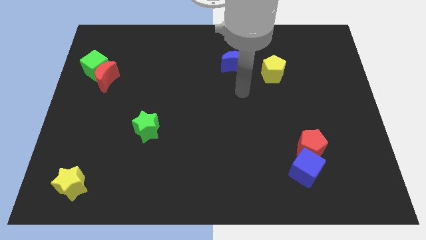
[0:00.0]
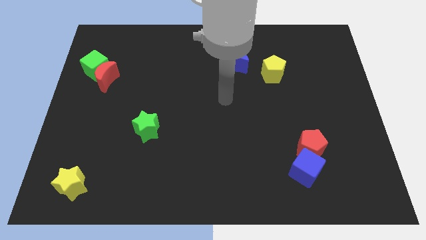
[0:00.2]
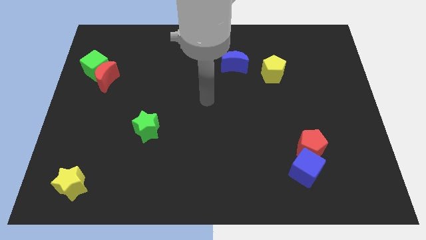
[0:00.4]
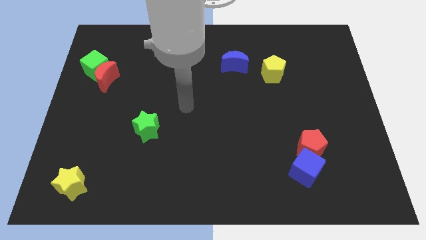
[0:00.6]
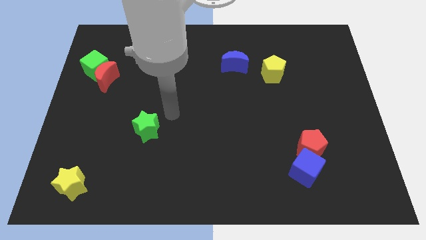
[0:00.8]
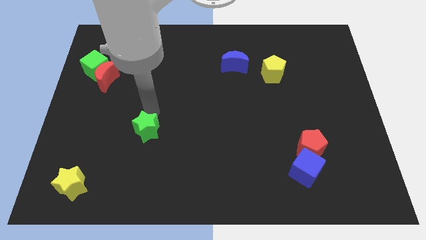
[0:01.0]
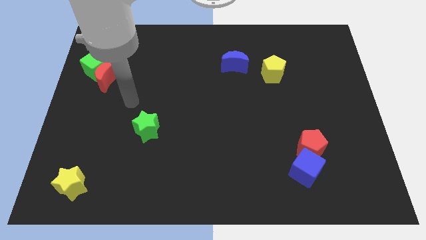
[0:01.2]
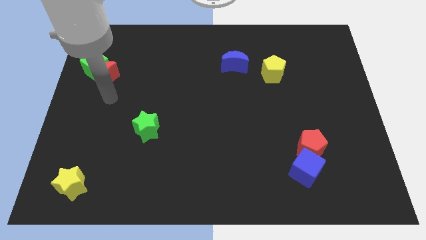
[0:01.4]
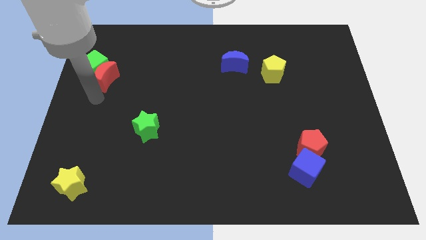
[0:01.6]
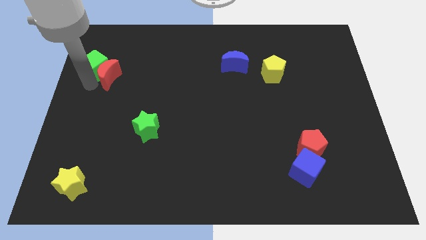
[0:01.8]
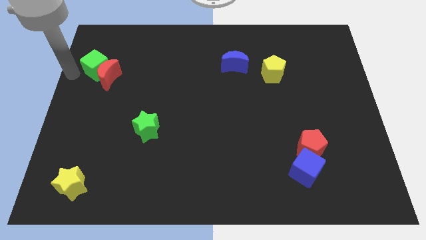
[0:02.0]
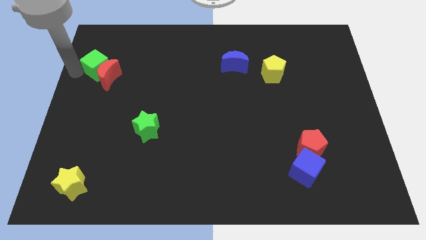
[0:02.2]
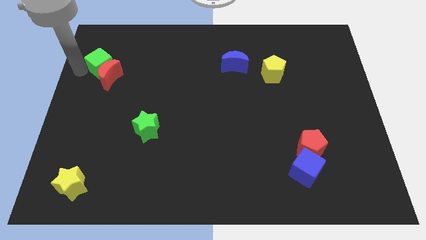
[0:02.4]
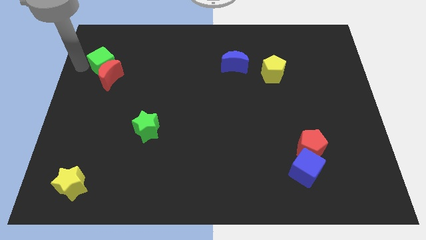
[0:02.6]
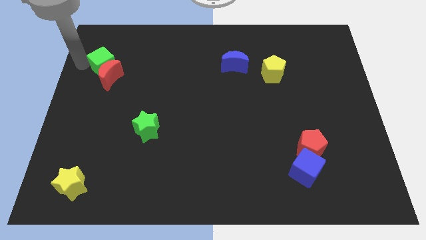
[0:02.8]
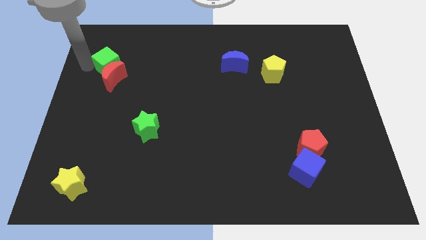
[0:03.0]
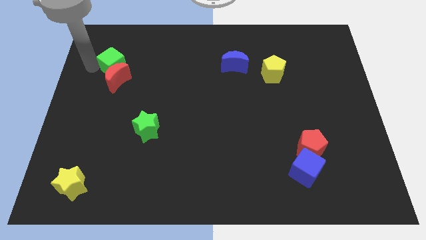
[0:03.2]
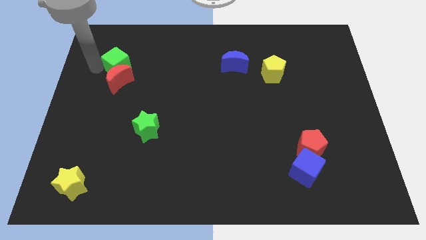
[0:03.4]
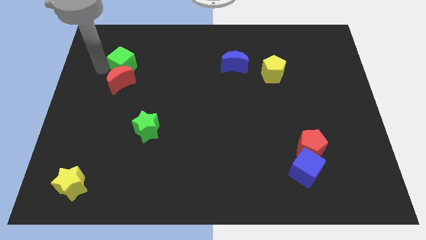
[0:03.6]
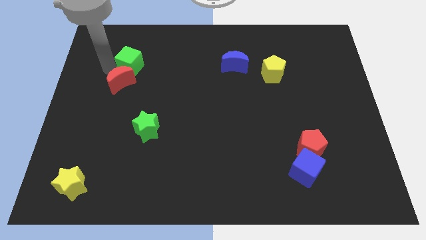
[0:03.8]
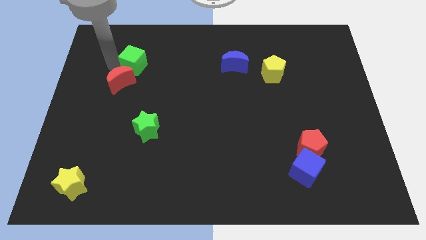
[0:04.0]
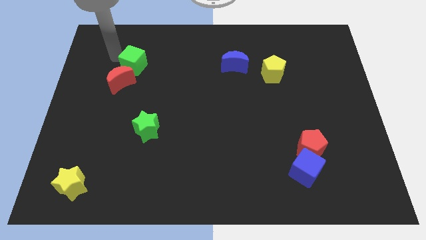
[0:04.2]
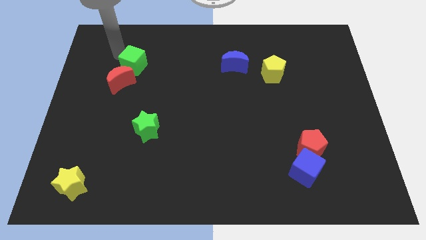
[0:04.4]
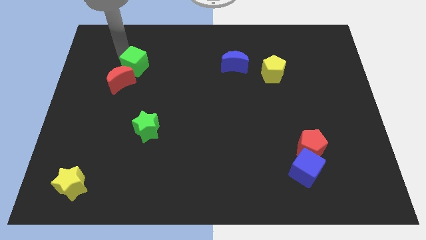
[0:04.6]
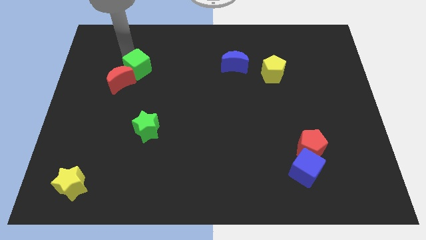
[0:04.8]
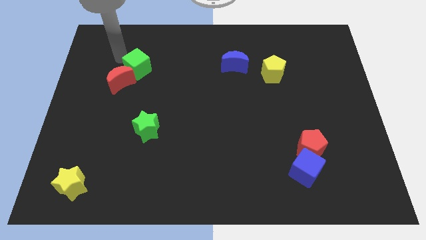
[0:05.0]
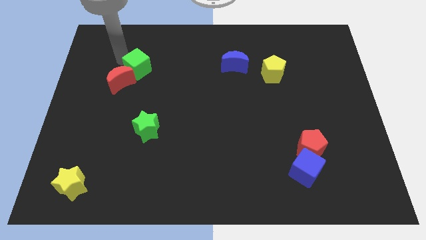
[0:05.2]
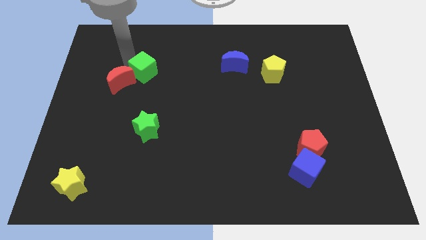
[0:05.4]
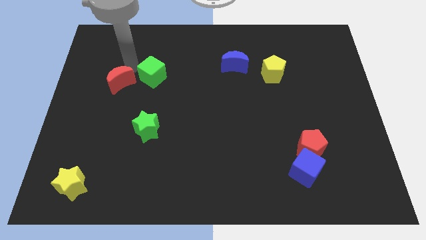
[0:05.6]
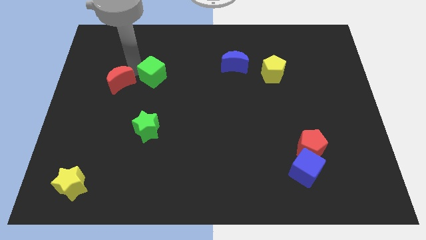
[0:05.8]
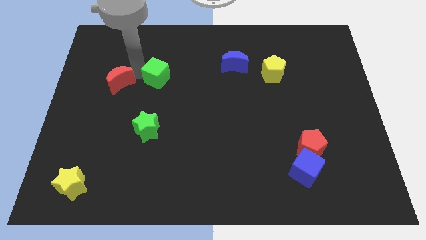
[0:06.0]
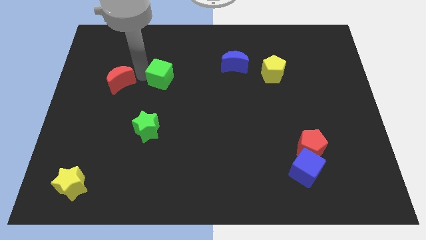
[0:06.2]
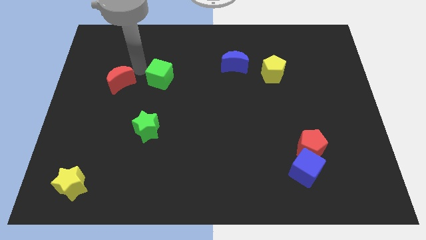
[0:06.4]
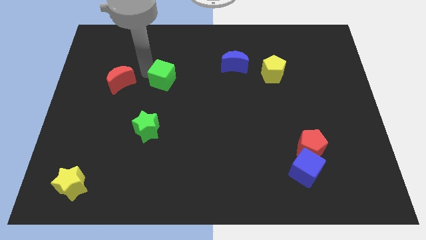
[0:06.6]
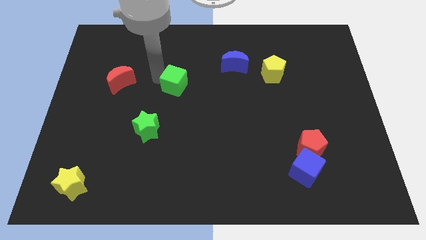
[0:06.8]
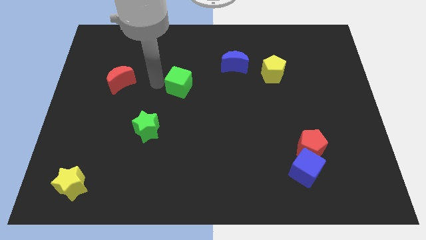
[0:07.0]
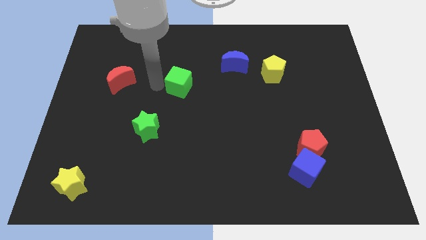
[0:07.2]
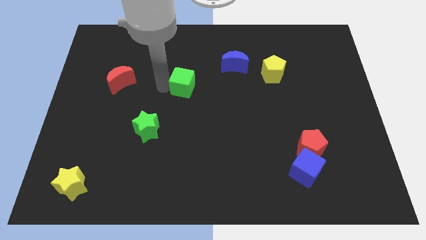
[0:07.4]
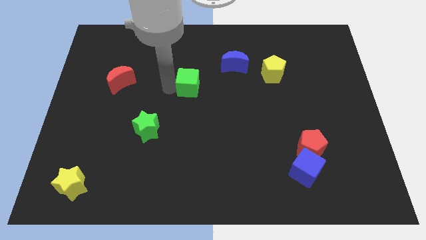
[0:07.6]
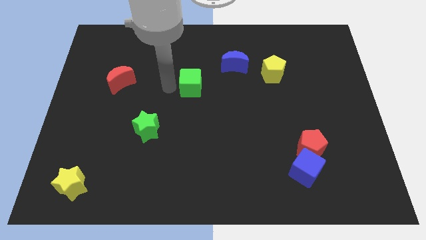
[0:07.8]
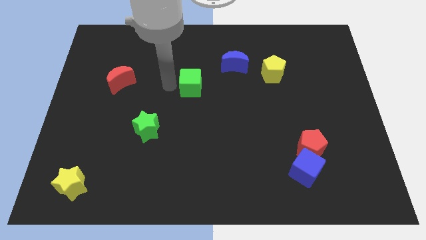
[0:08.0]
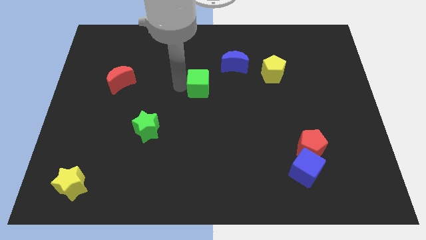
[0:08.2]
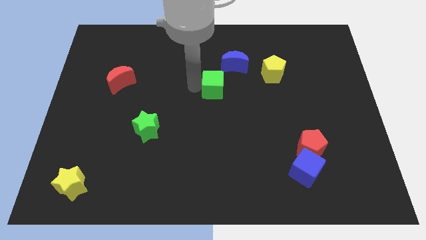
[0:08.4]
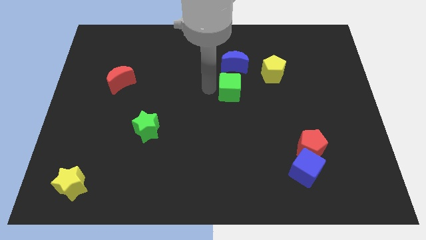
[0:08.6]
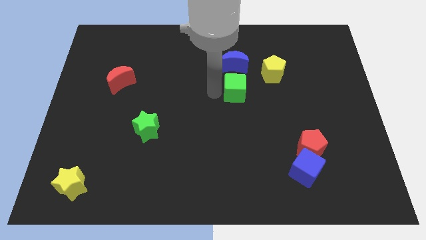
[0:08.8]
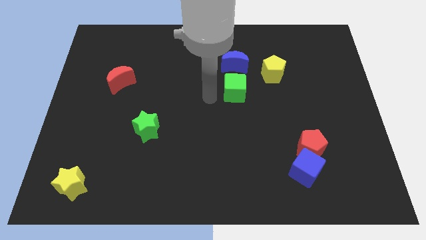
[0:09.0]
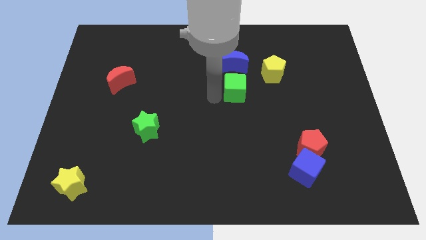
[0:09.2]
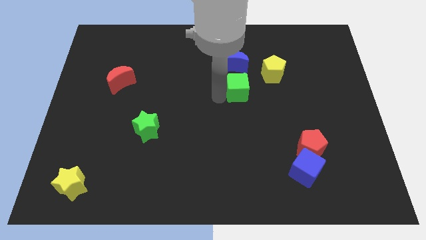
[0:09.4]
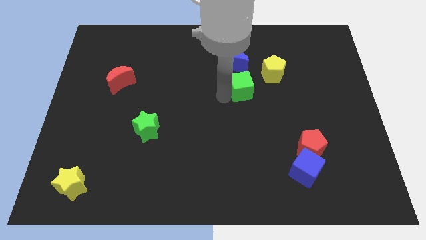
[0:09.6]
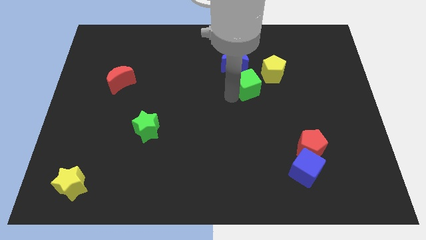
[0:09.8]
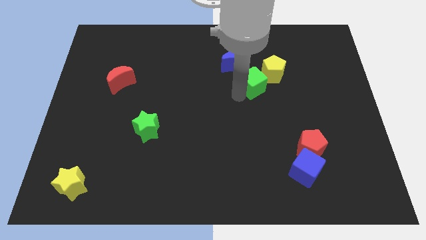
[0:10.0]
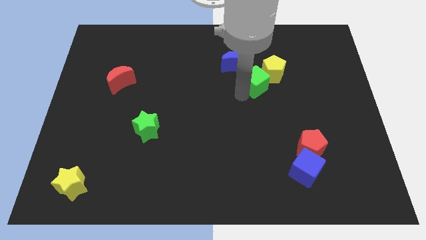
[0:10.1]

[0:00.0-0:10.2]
move the green cube next to the yellow pentagon

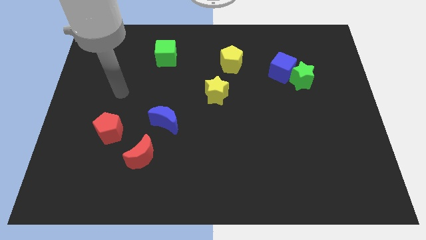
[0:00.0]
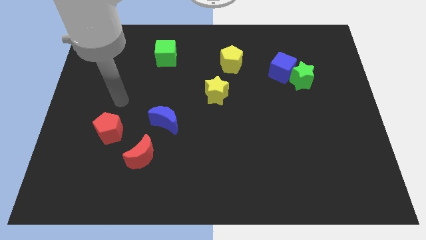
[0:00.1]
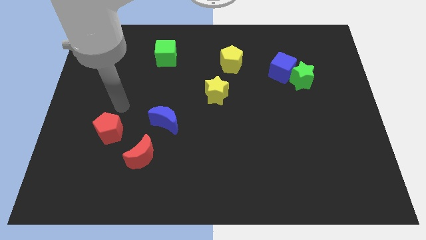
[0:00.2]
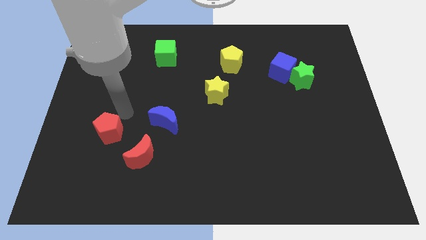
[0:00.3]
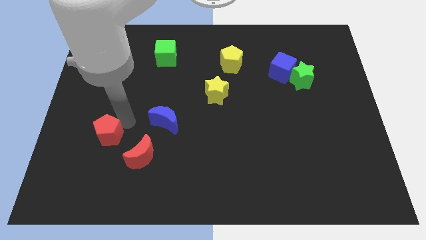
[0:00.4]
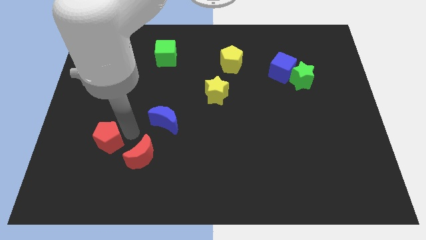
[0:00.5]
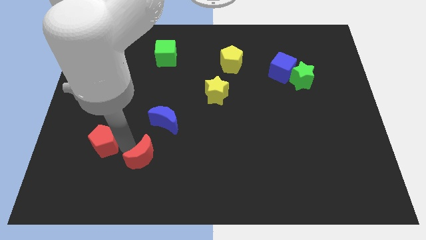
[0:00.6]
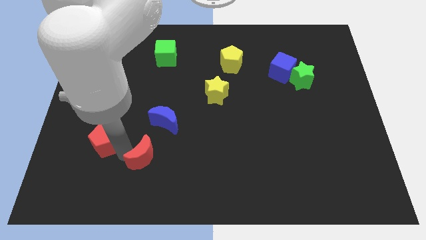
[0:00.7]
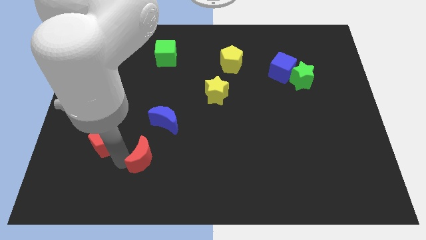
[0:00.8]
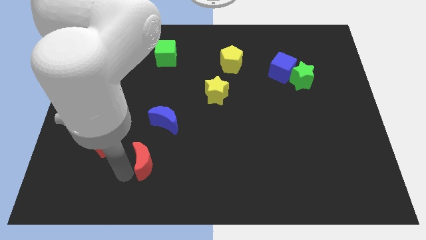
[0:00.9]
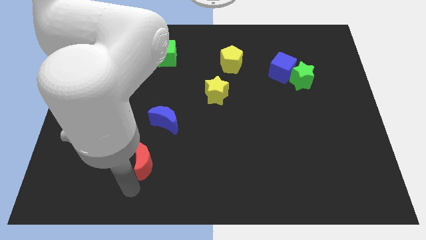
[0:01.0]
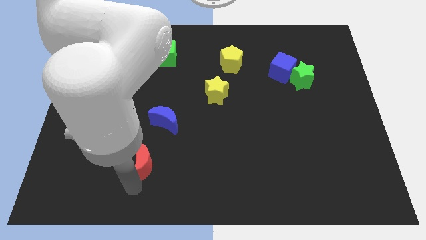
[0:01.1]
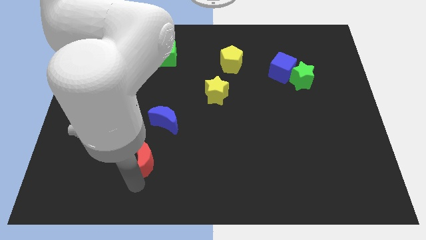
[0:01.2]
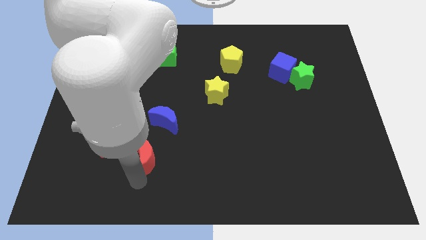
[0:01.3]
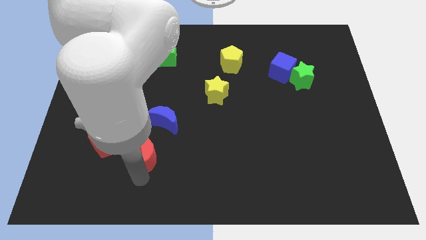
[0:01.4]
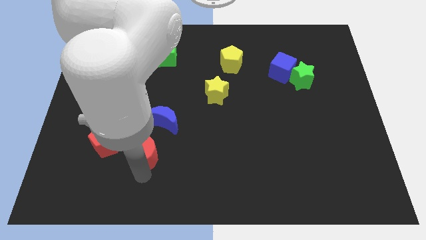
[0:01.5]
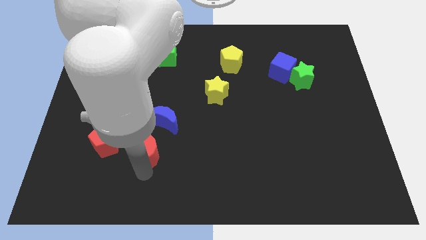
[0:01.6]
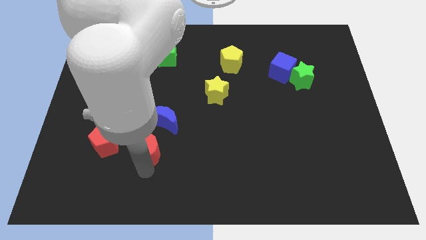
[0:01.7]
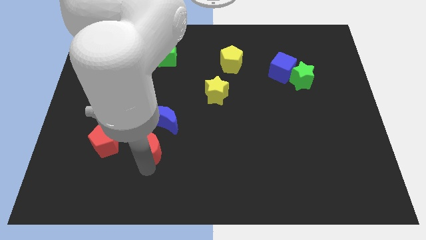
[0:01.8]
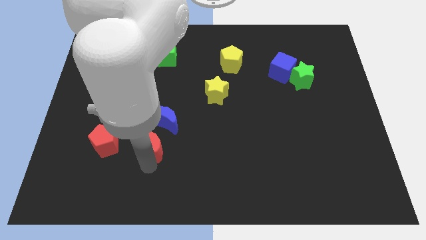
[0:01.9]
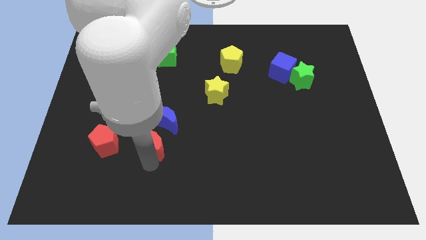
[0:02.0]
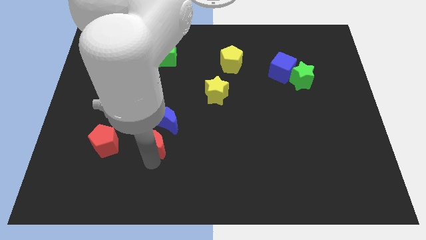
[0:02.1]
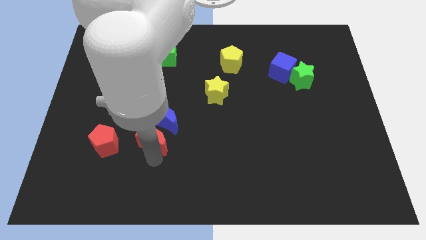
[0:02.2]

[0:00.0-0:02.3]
move the red moon next to the blue moon
